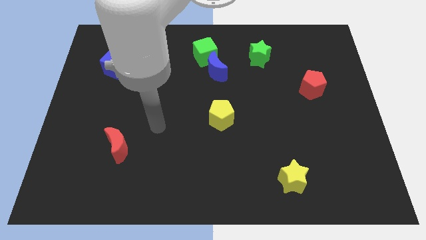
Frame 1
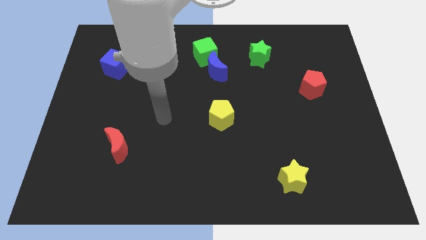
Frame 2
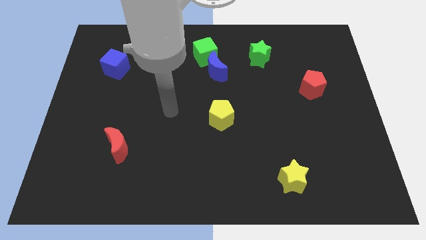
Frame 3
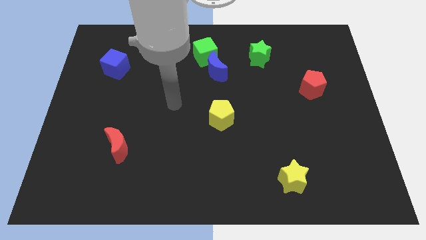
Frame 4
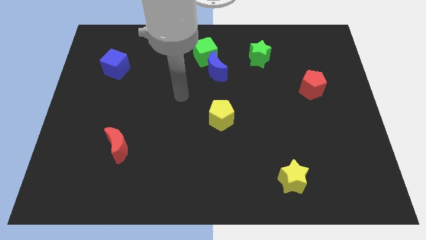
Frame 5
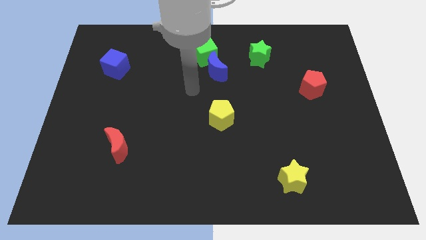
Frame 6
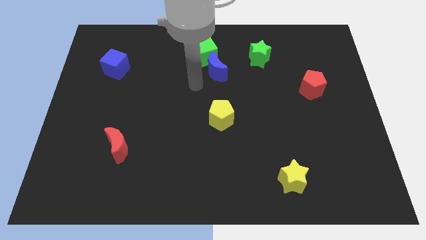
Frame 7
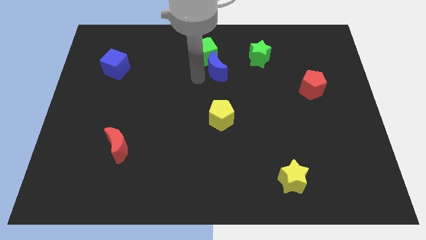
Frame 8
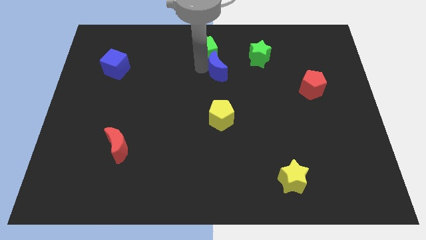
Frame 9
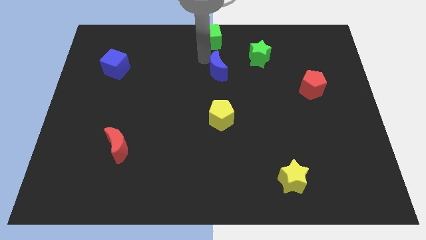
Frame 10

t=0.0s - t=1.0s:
move the blue moon away from the green cube

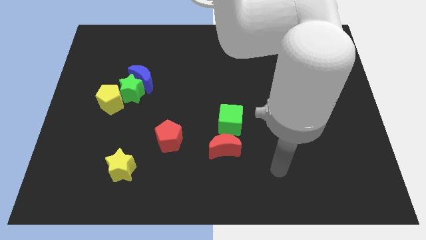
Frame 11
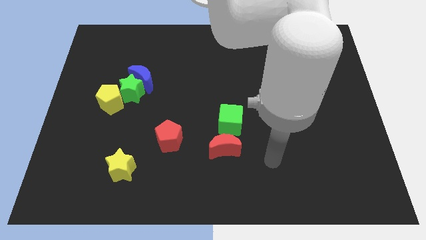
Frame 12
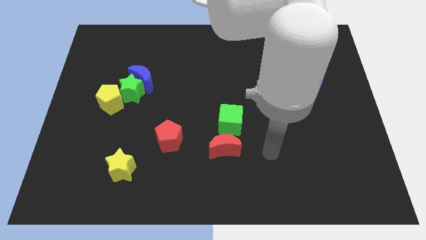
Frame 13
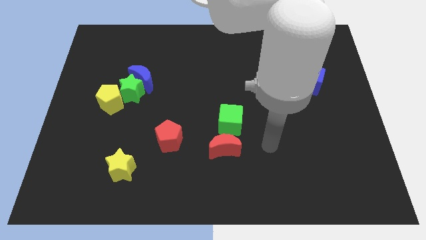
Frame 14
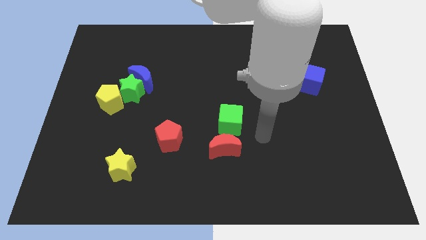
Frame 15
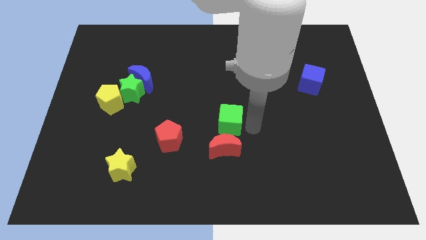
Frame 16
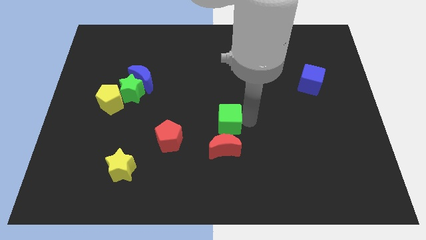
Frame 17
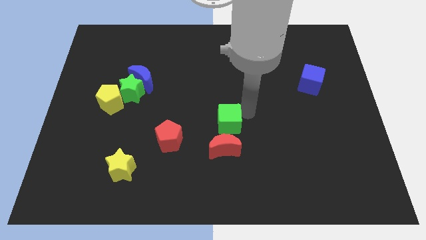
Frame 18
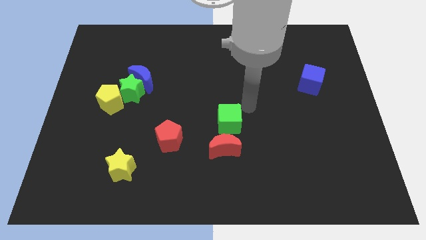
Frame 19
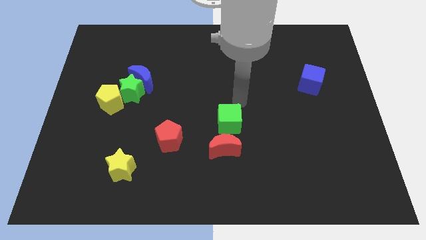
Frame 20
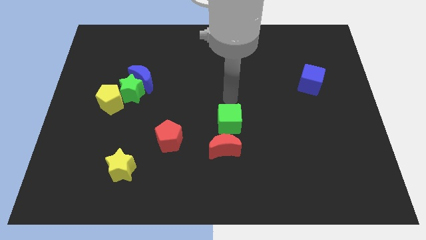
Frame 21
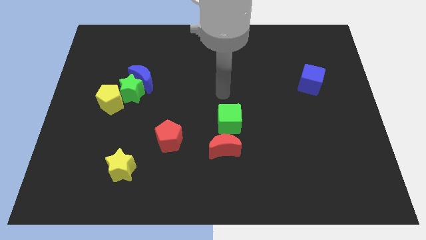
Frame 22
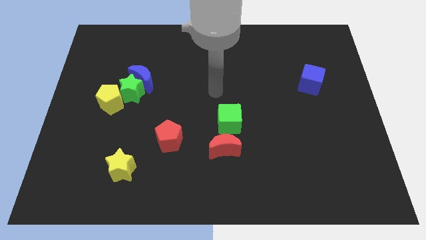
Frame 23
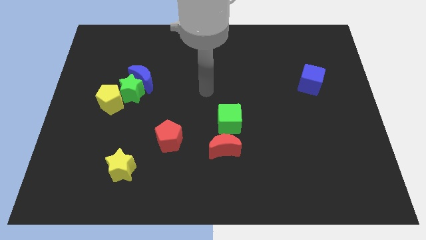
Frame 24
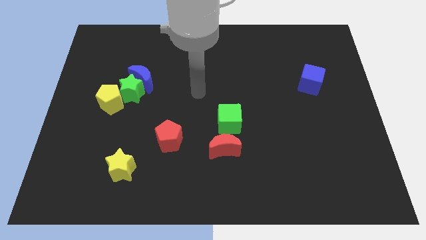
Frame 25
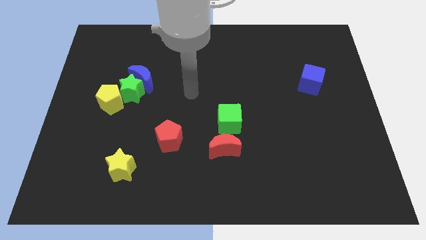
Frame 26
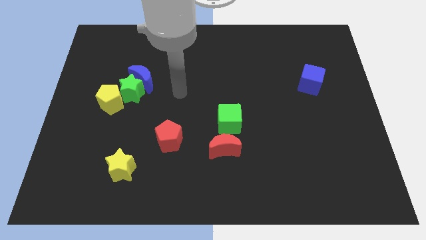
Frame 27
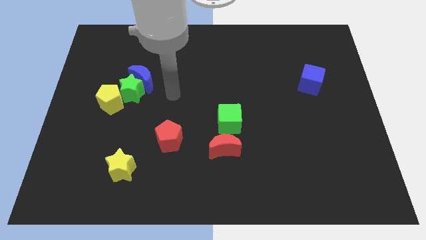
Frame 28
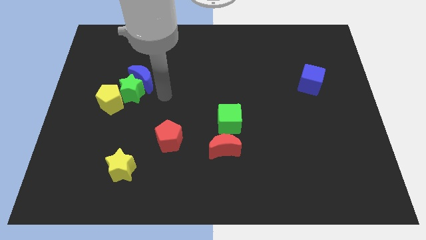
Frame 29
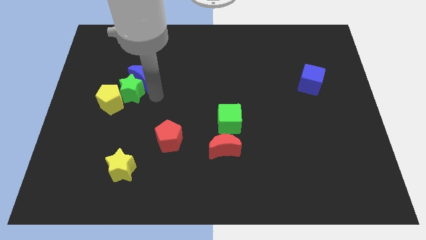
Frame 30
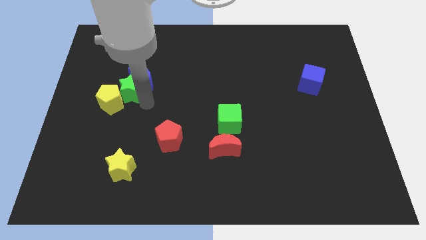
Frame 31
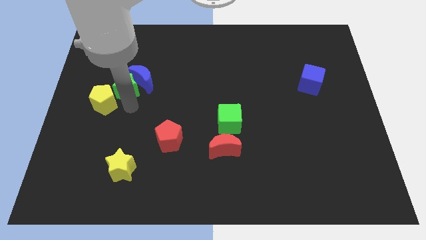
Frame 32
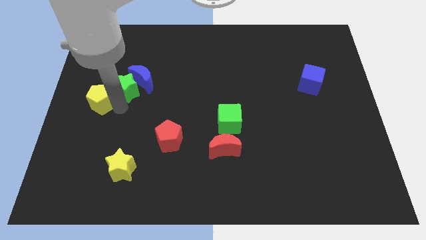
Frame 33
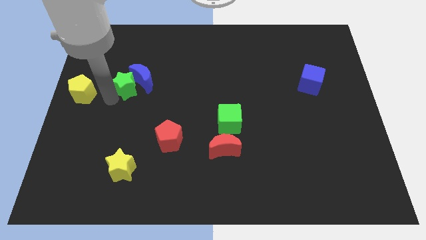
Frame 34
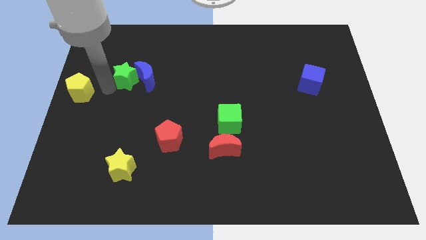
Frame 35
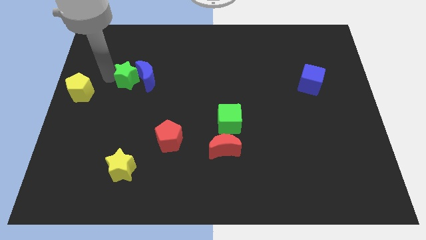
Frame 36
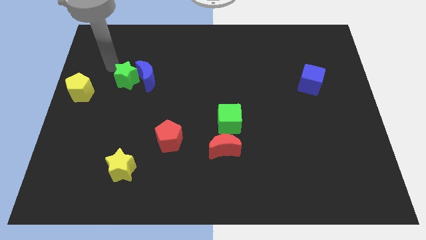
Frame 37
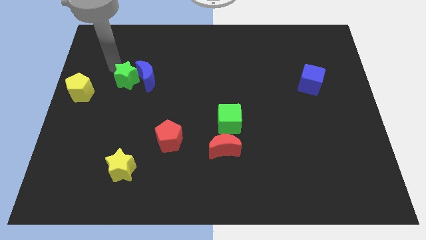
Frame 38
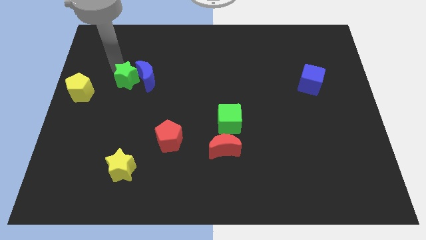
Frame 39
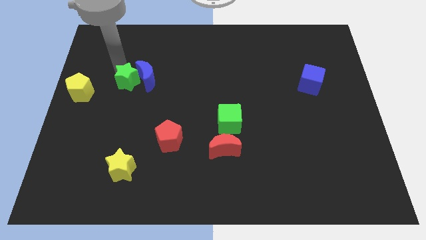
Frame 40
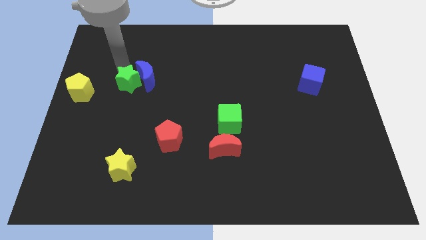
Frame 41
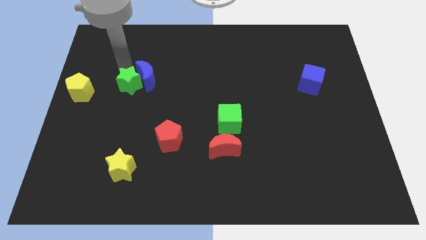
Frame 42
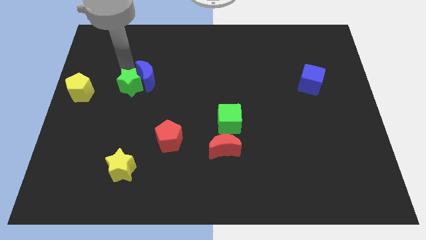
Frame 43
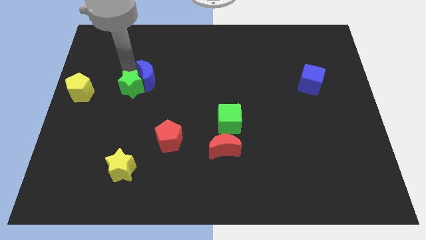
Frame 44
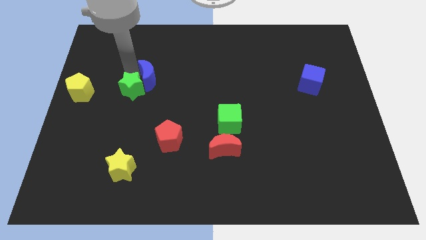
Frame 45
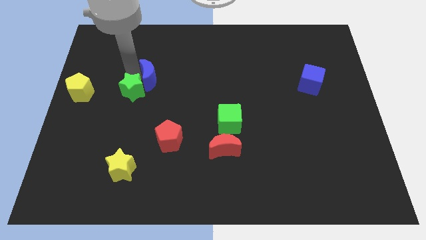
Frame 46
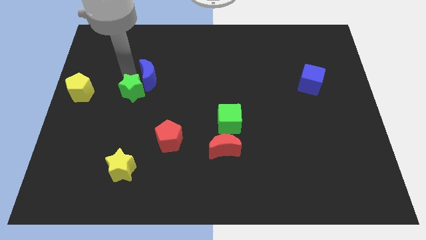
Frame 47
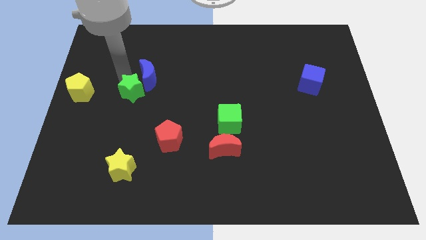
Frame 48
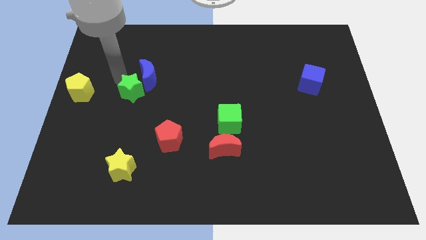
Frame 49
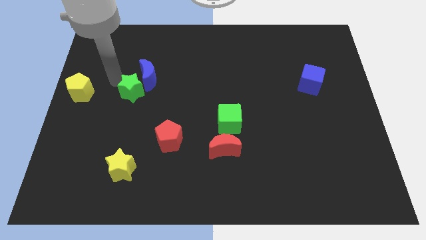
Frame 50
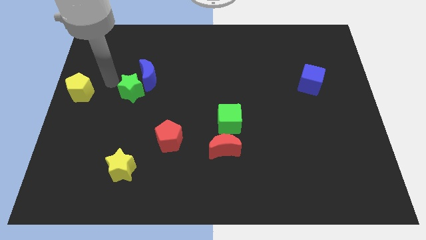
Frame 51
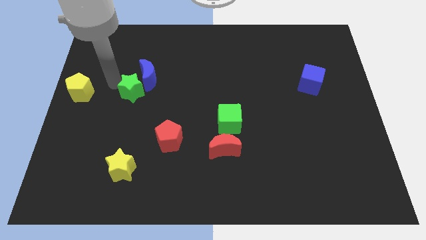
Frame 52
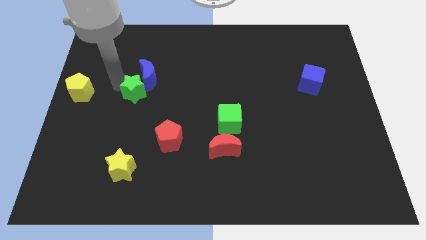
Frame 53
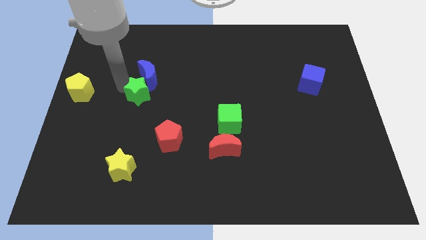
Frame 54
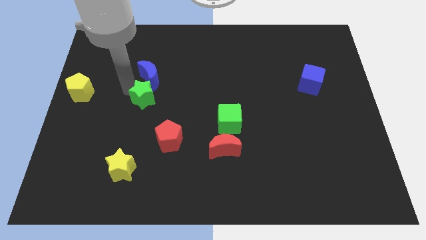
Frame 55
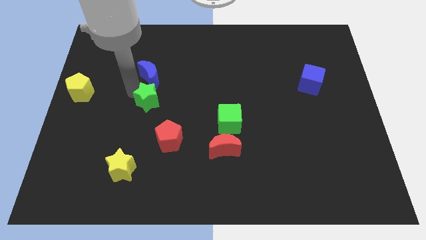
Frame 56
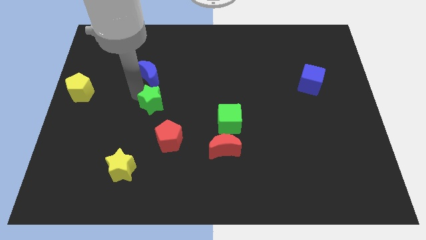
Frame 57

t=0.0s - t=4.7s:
separate the green star from the blue moon and yellow pentagon

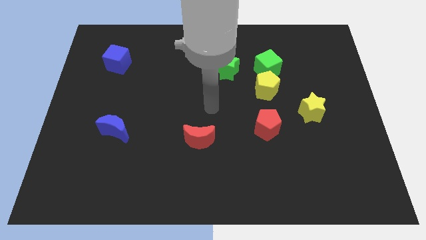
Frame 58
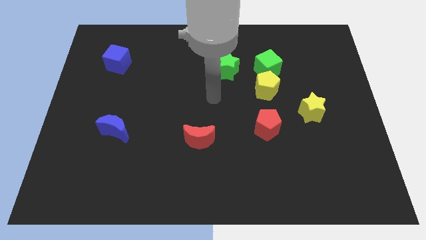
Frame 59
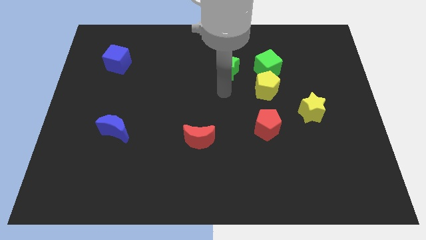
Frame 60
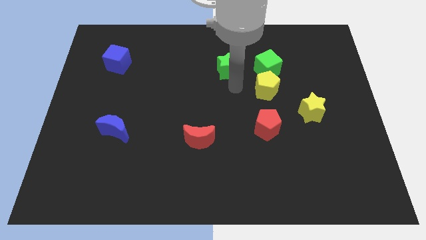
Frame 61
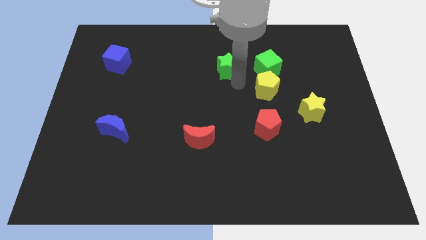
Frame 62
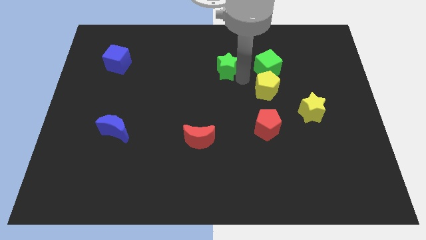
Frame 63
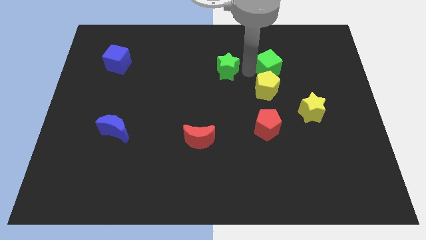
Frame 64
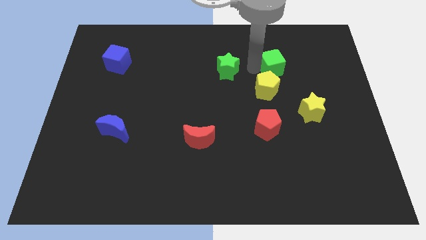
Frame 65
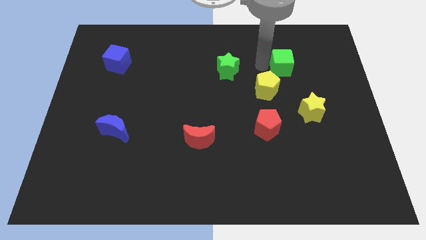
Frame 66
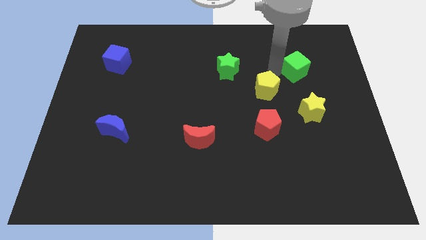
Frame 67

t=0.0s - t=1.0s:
separate the yellow pentagon from the green cube

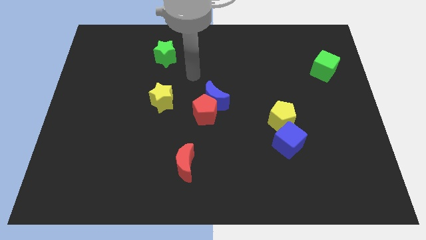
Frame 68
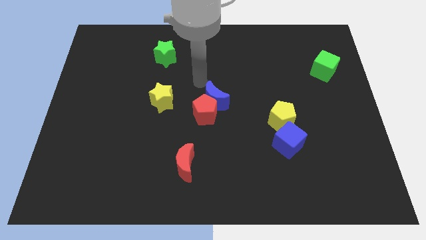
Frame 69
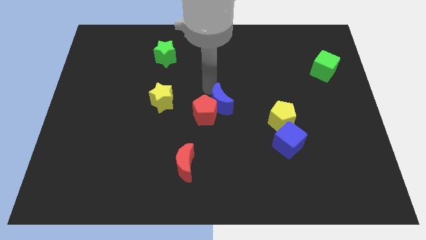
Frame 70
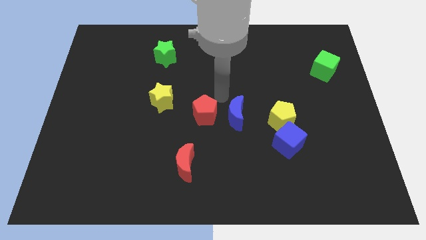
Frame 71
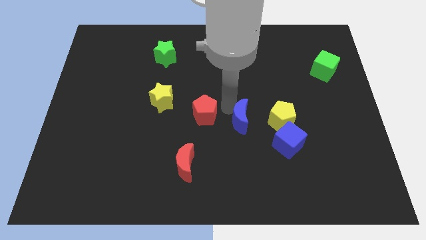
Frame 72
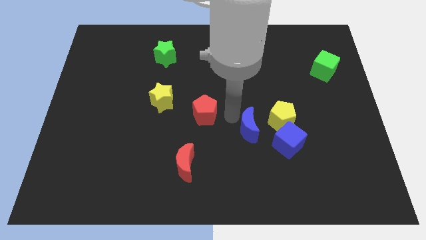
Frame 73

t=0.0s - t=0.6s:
separate the red pentagon from the blue moon

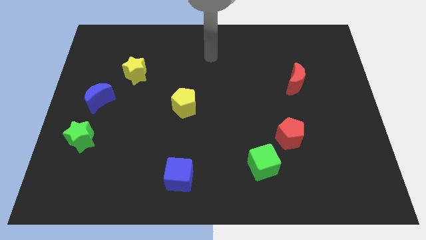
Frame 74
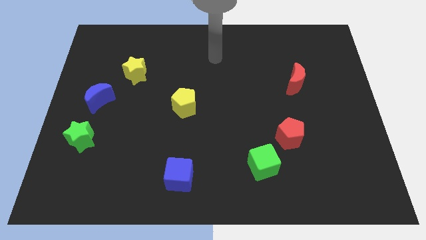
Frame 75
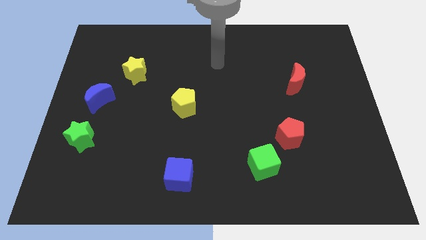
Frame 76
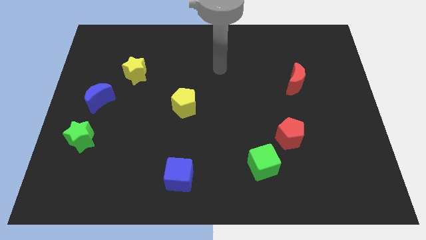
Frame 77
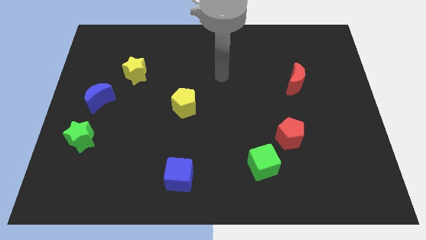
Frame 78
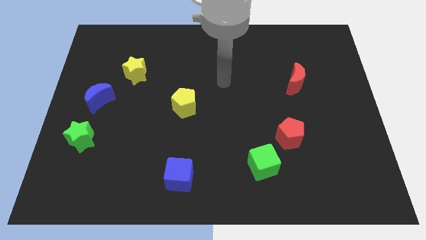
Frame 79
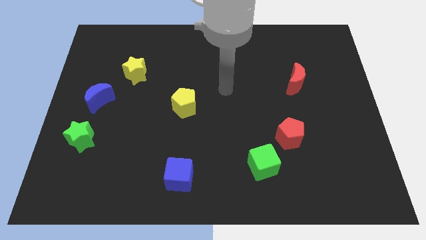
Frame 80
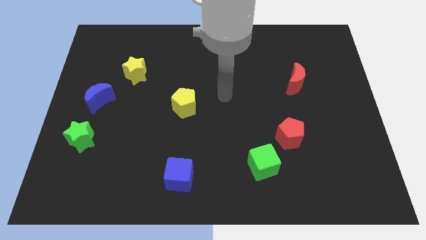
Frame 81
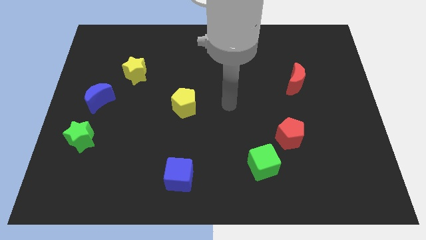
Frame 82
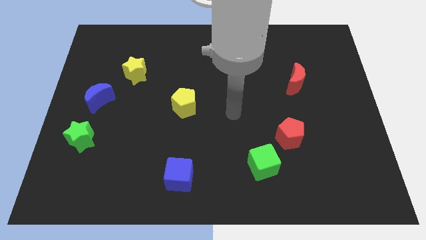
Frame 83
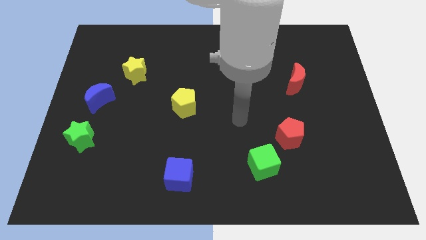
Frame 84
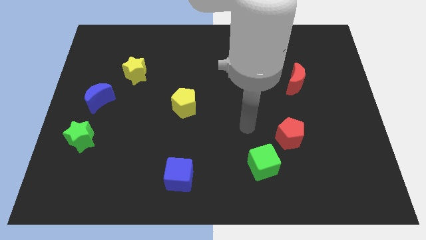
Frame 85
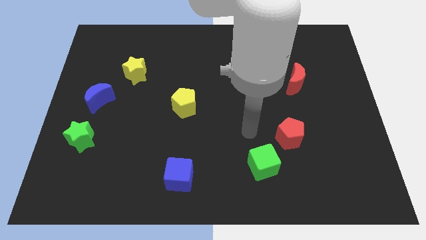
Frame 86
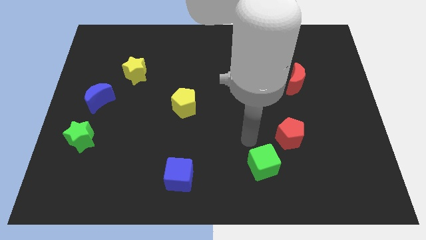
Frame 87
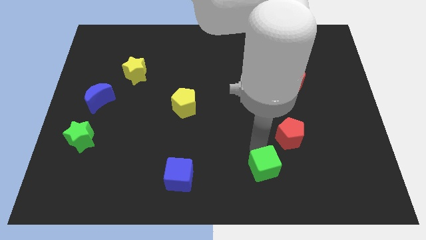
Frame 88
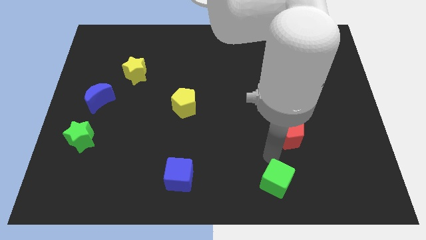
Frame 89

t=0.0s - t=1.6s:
move the red pentagon away from the green cube

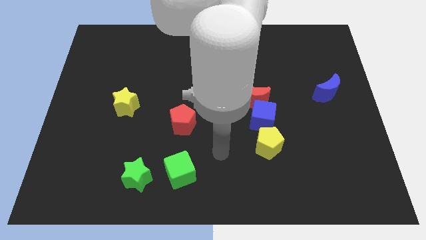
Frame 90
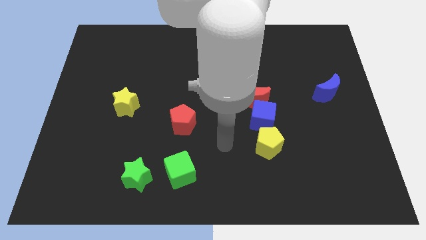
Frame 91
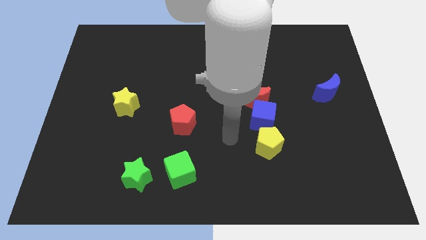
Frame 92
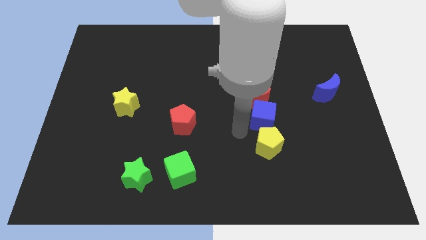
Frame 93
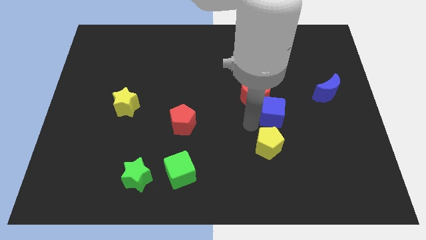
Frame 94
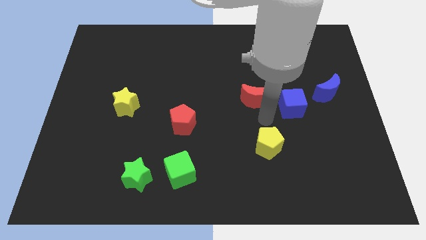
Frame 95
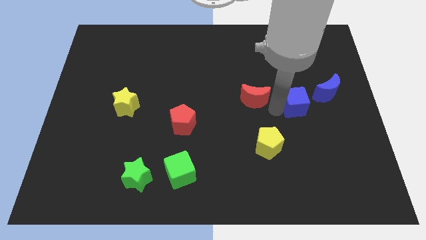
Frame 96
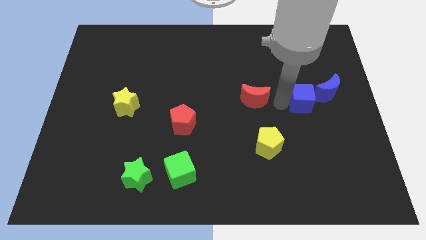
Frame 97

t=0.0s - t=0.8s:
move the red moon away from the blue cube
